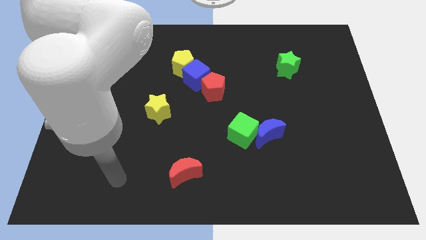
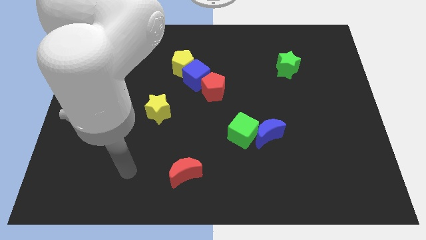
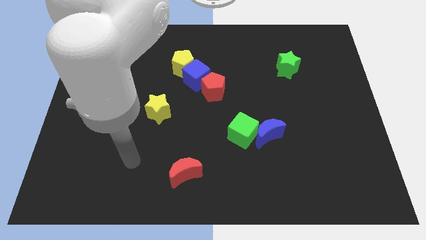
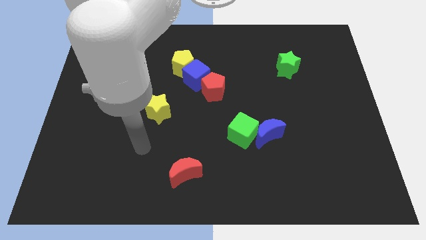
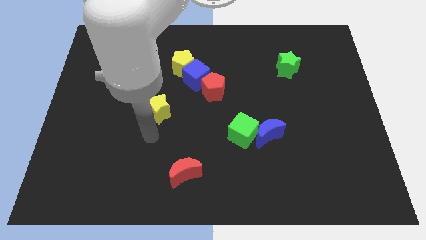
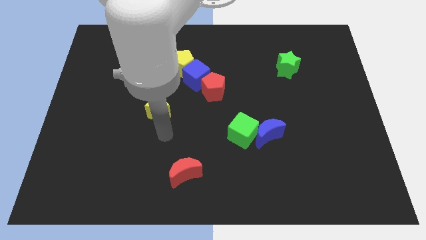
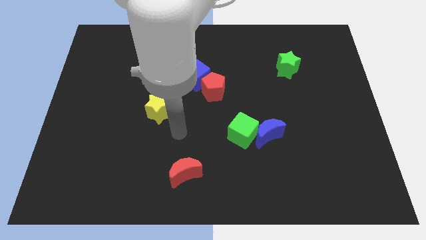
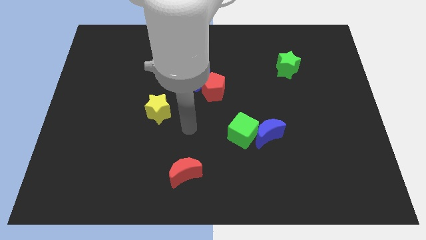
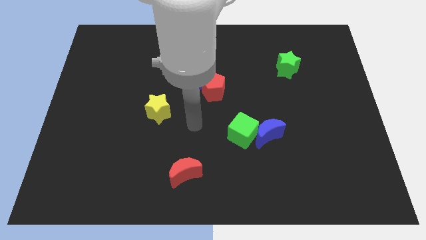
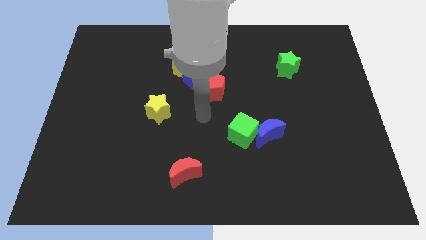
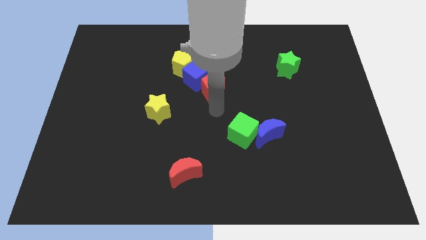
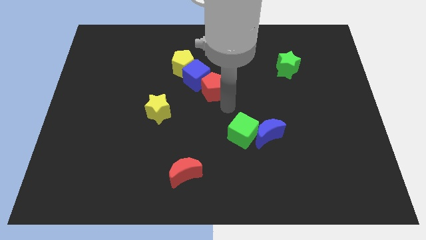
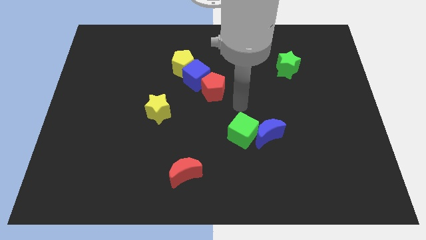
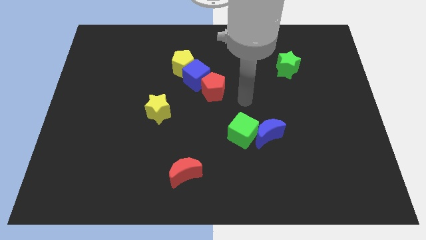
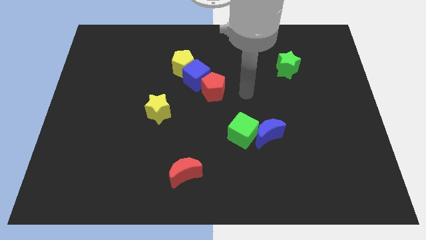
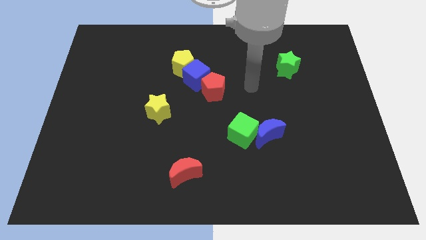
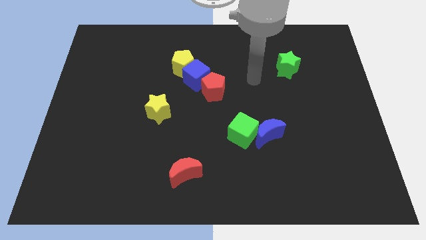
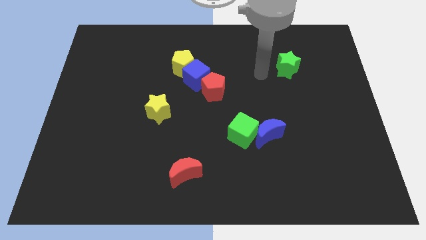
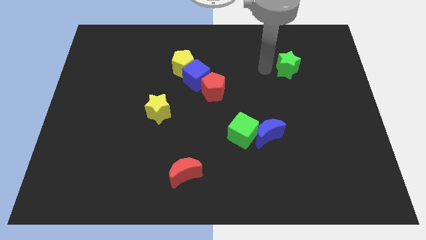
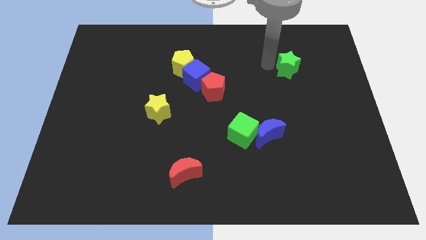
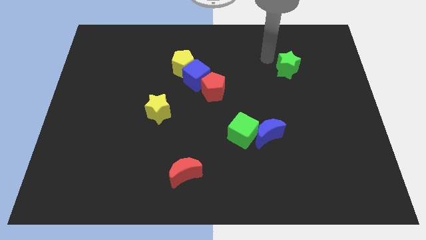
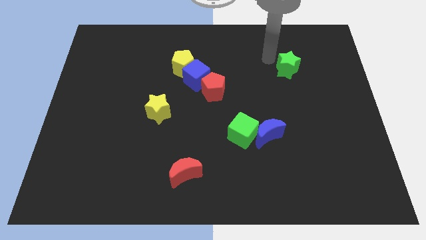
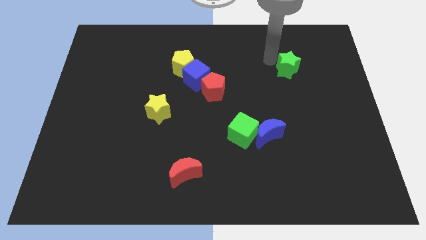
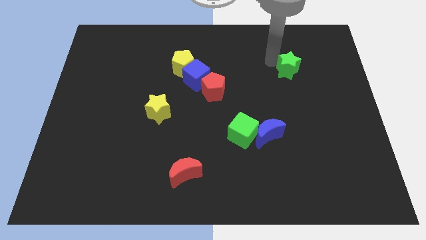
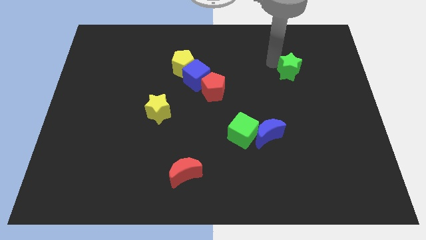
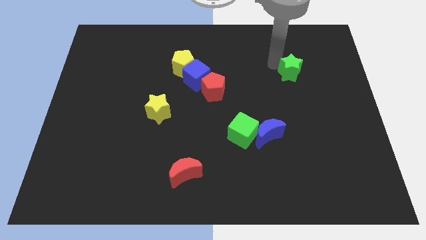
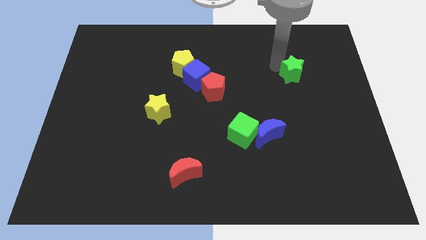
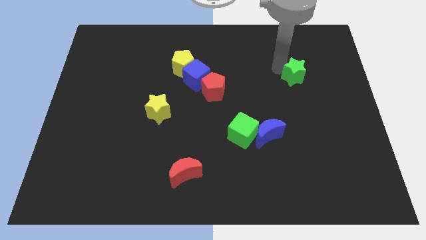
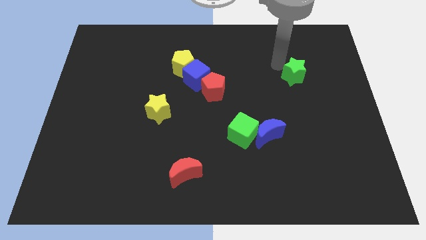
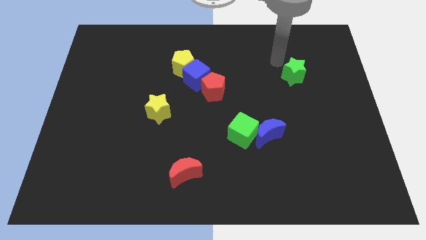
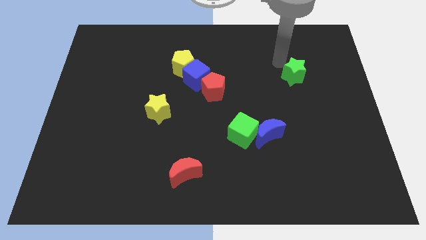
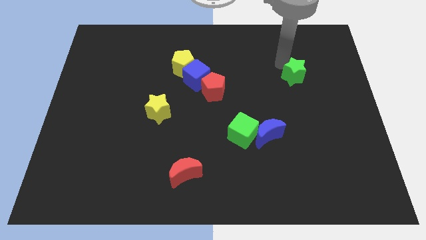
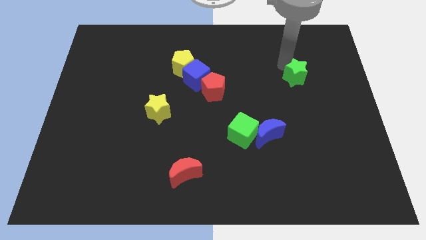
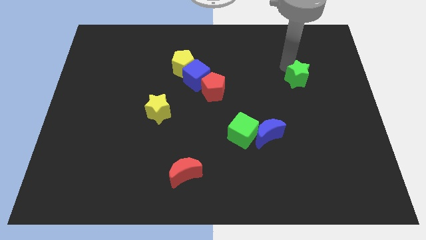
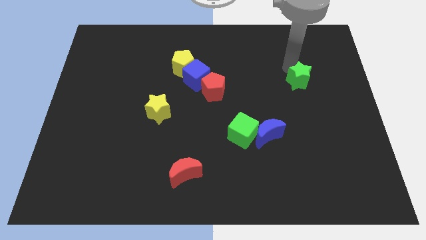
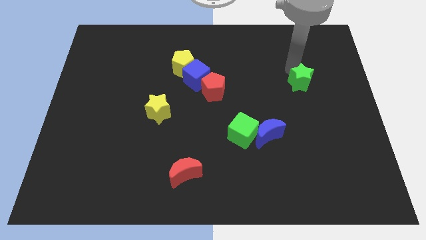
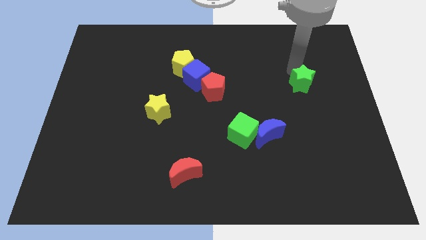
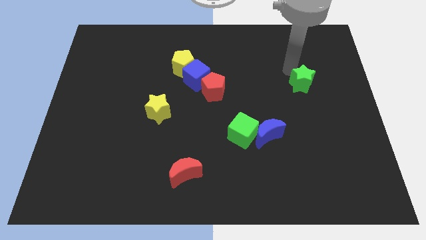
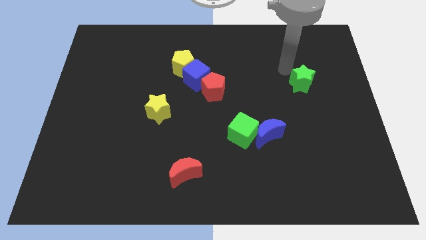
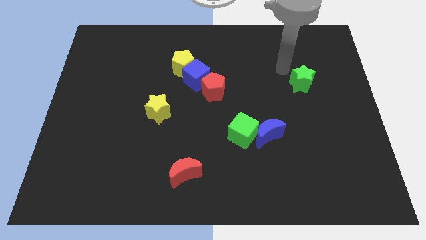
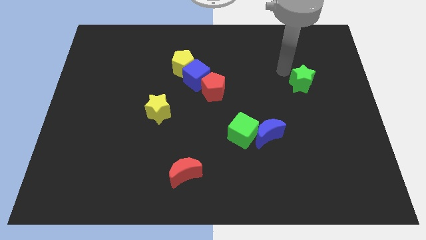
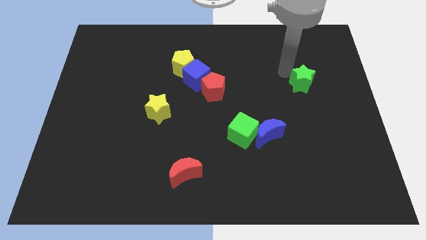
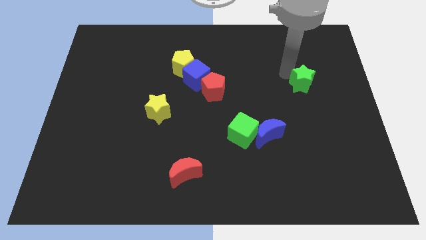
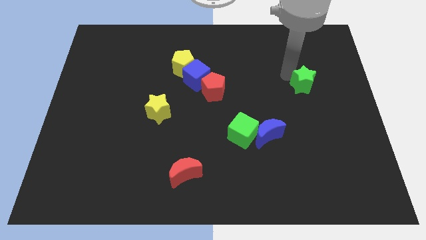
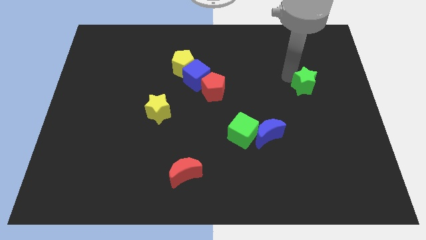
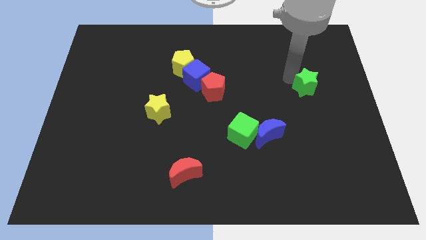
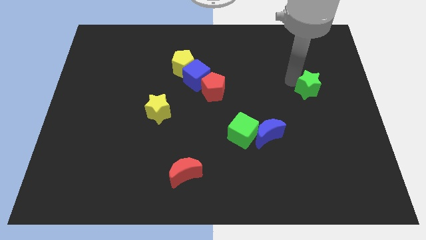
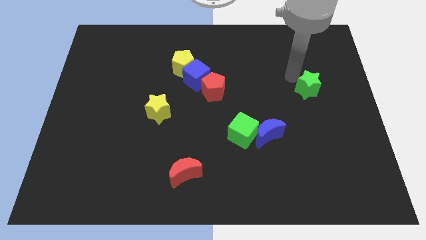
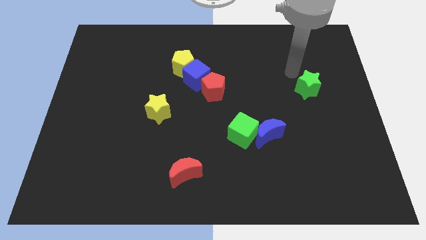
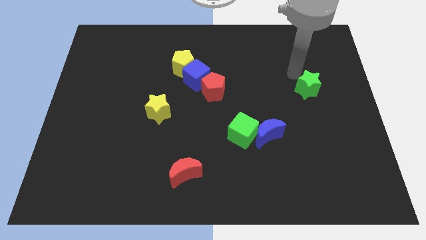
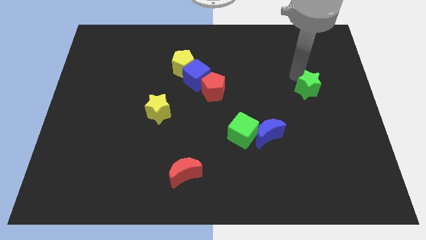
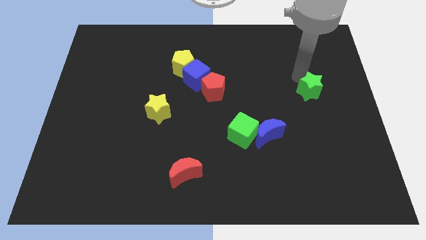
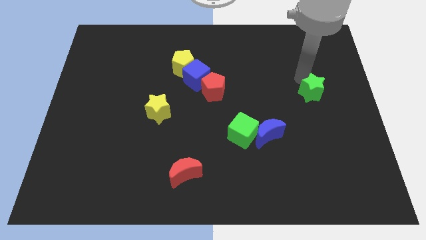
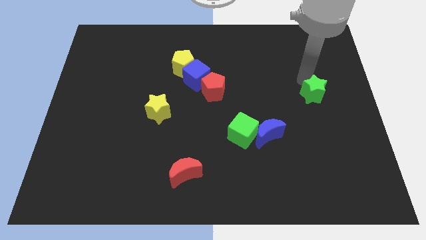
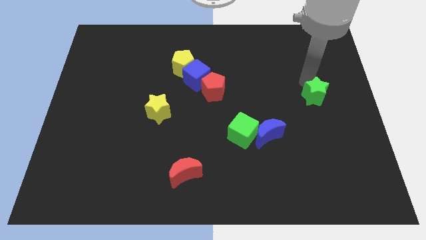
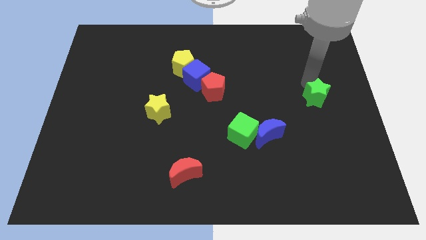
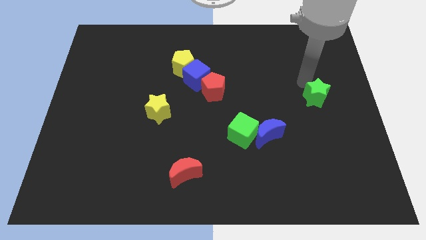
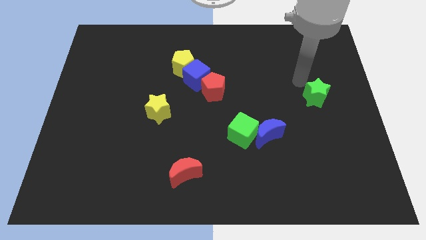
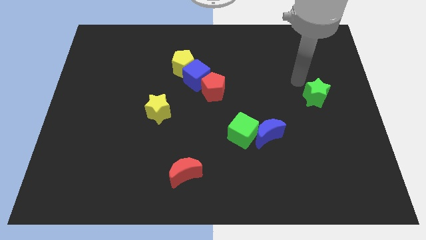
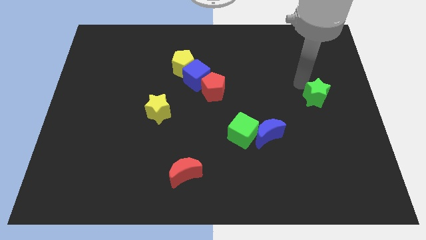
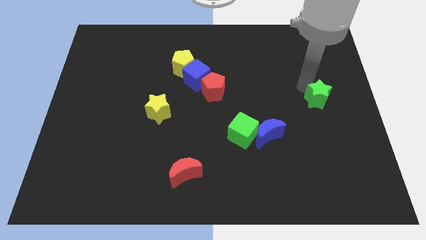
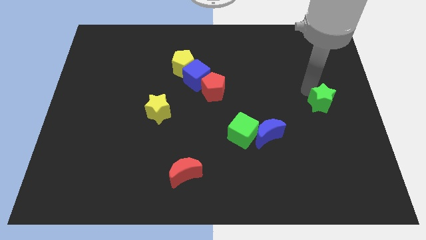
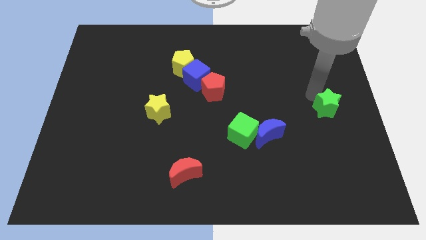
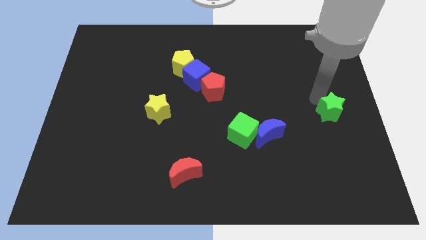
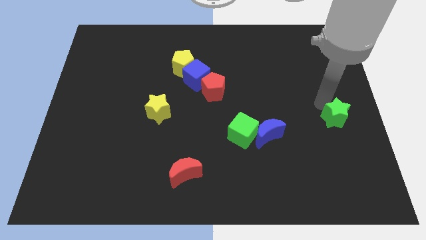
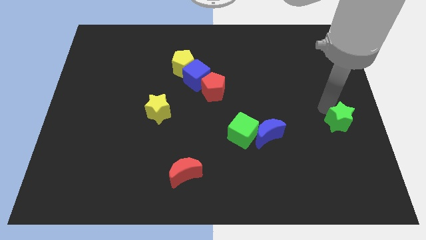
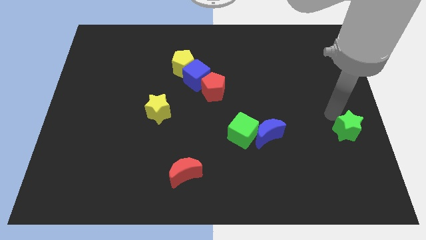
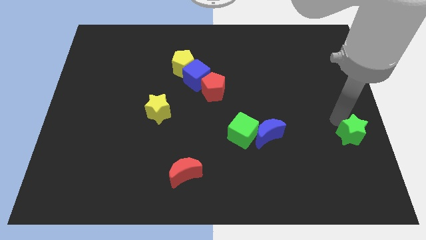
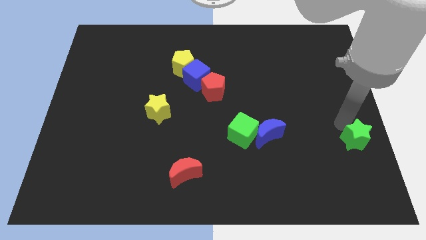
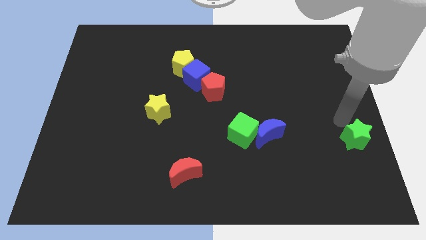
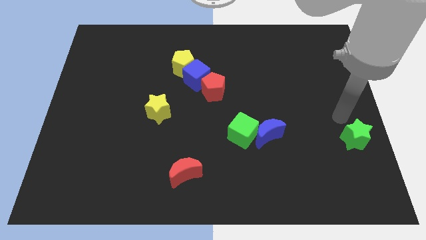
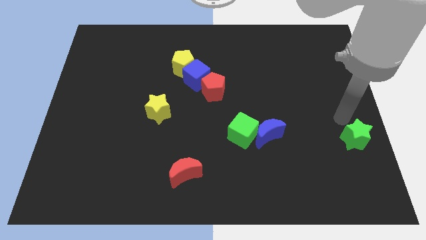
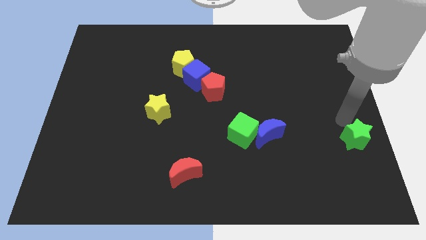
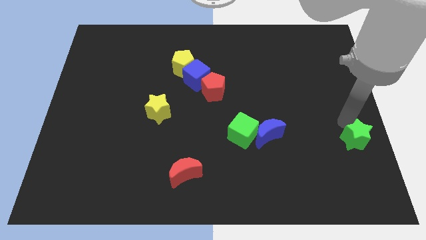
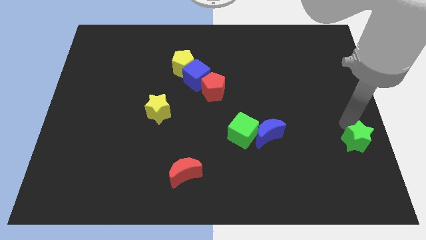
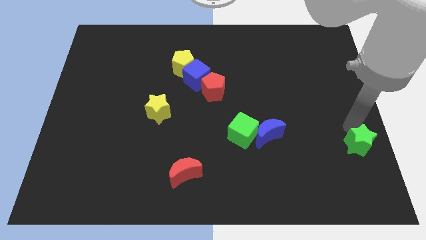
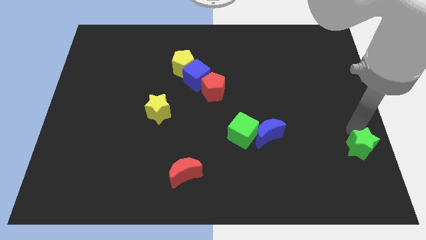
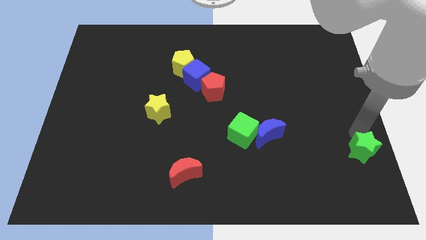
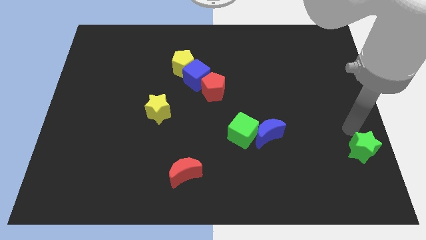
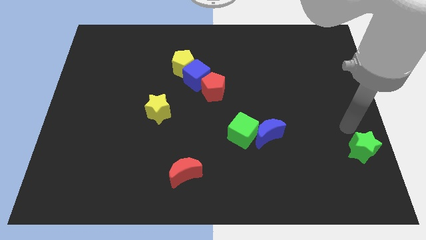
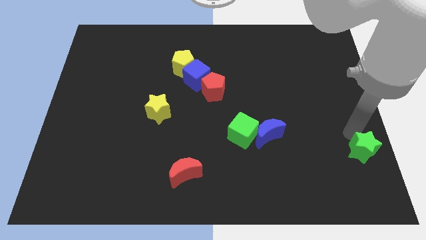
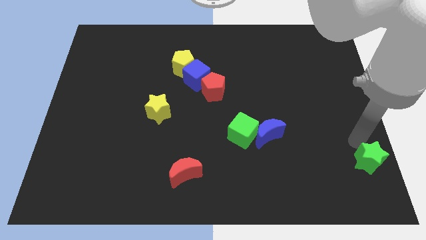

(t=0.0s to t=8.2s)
put the green star to the bottom right corner
